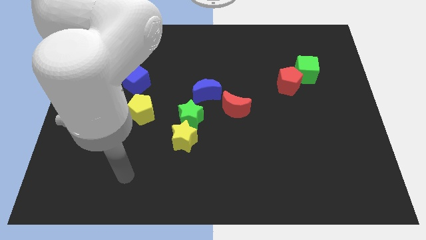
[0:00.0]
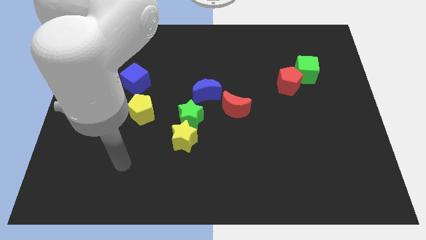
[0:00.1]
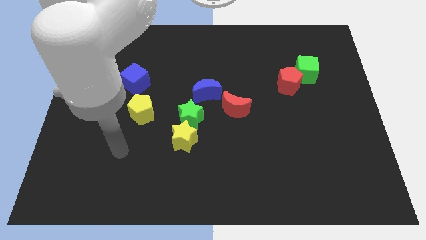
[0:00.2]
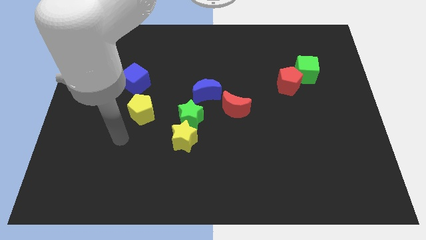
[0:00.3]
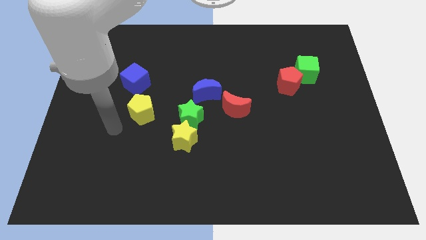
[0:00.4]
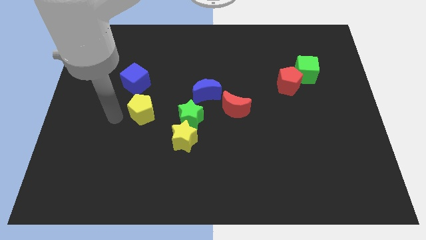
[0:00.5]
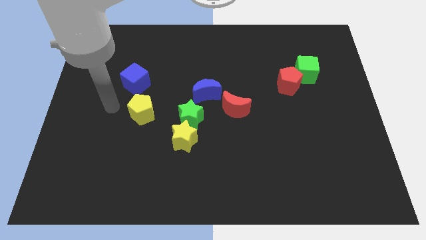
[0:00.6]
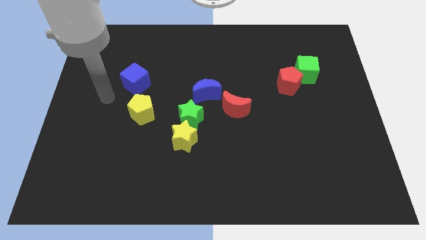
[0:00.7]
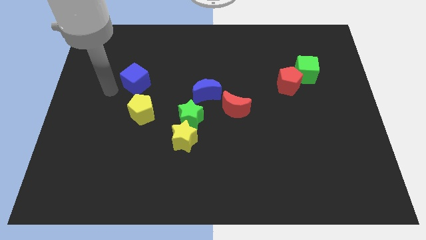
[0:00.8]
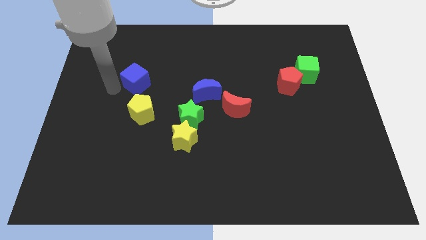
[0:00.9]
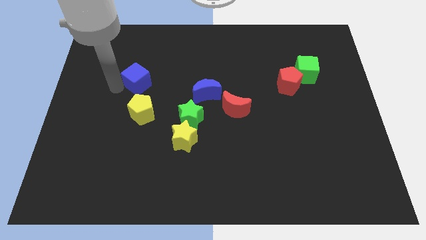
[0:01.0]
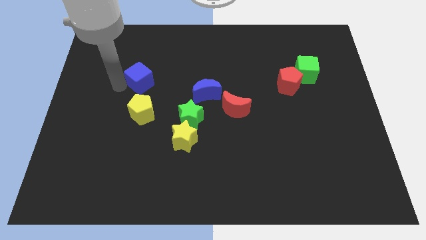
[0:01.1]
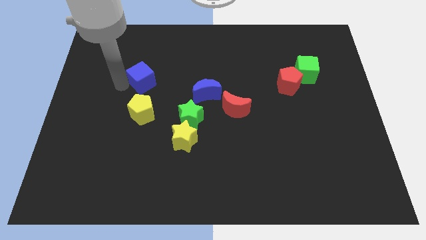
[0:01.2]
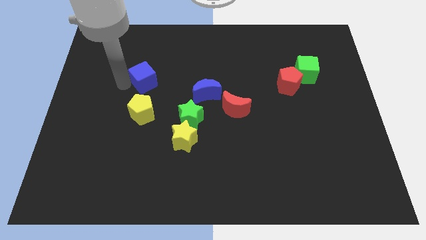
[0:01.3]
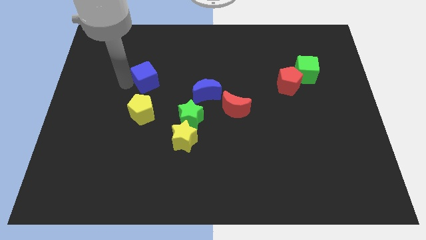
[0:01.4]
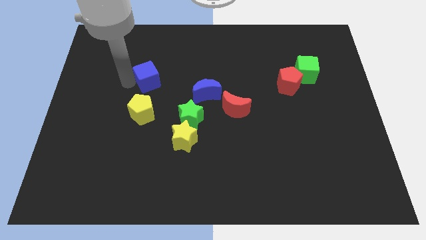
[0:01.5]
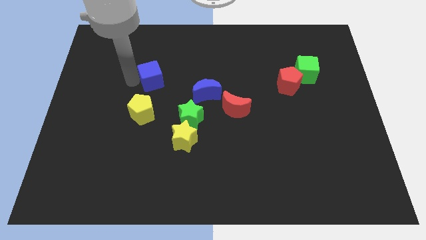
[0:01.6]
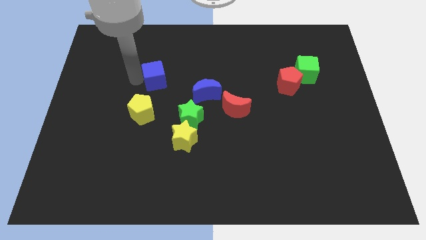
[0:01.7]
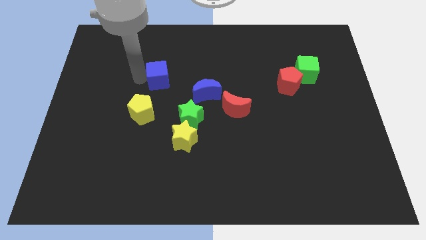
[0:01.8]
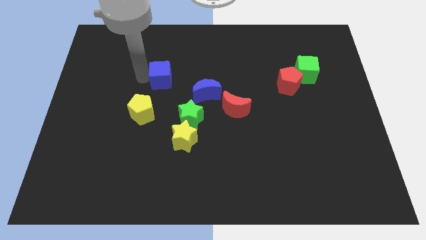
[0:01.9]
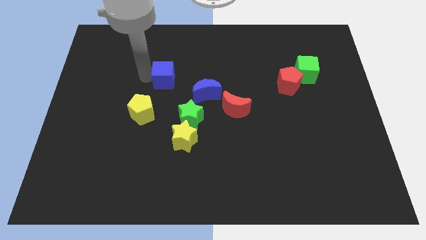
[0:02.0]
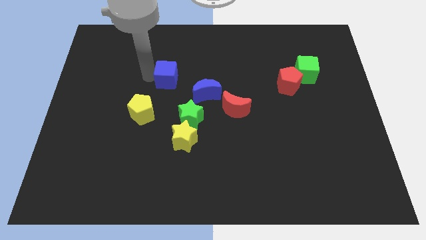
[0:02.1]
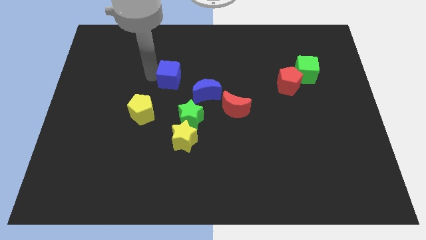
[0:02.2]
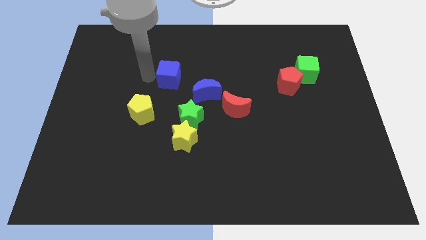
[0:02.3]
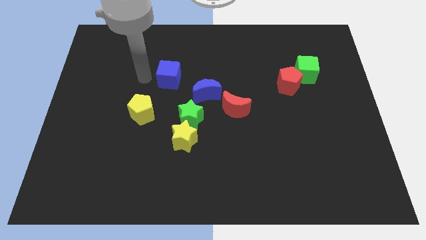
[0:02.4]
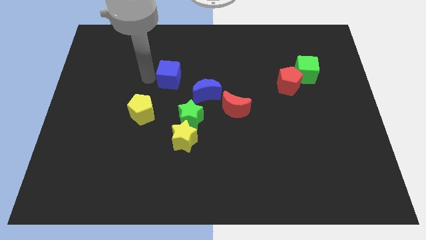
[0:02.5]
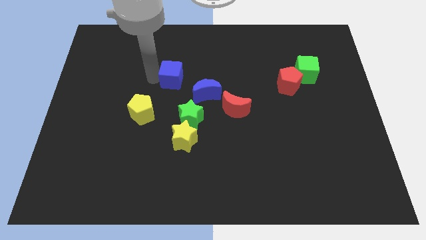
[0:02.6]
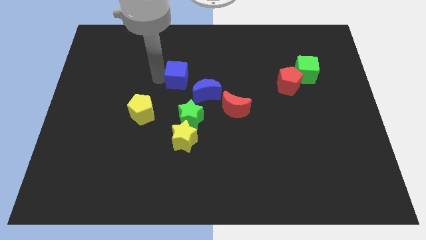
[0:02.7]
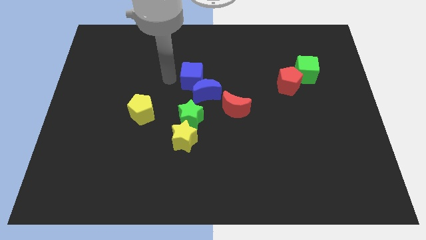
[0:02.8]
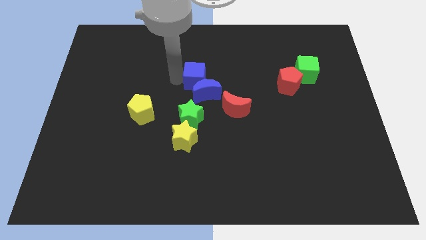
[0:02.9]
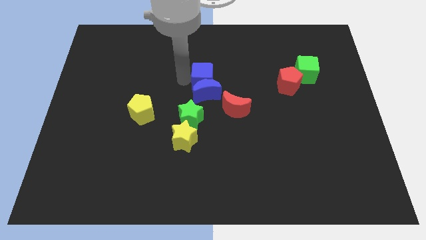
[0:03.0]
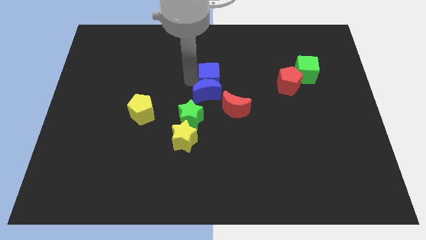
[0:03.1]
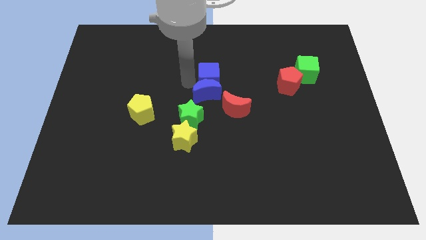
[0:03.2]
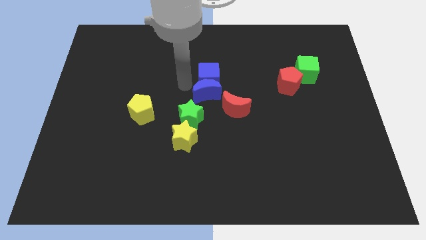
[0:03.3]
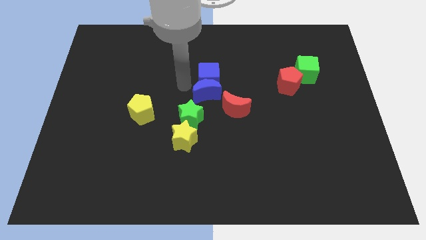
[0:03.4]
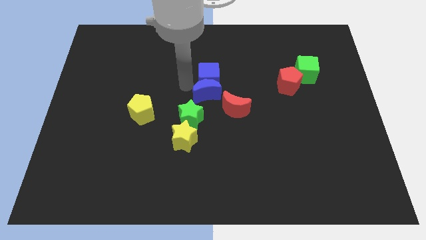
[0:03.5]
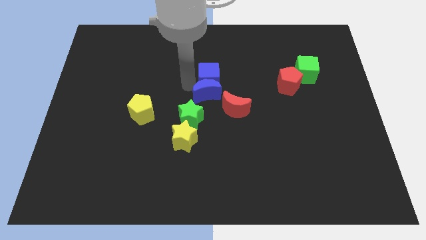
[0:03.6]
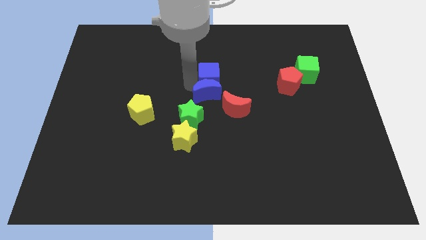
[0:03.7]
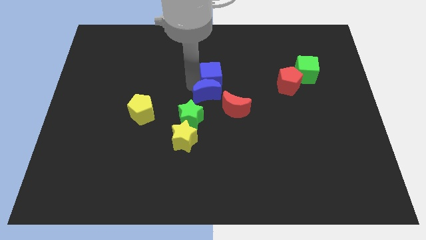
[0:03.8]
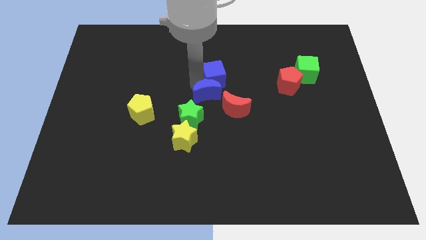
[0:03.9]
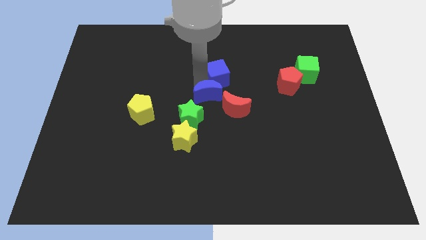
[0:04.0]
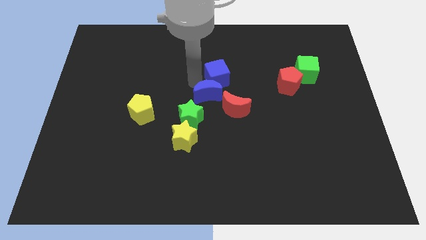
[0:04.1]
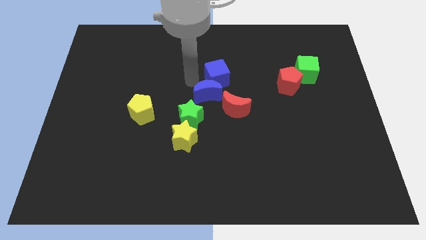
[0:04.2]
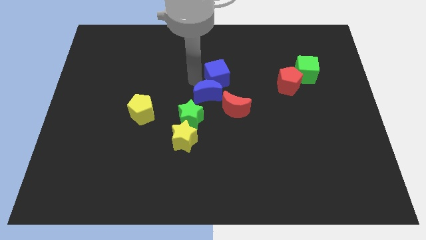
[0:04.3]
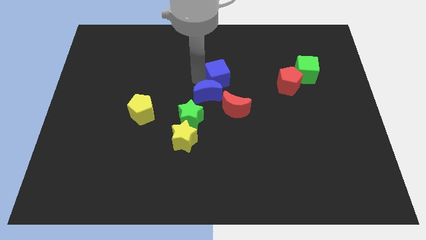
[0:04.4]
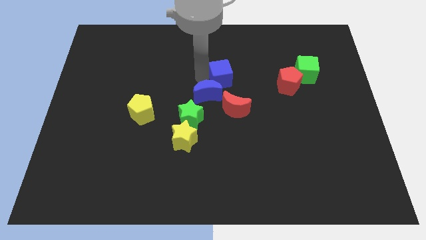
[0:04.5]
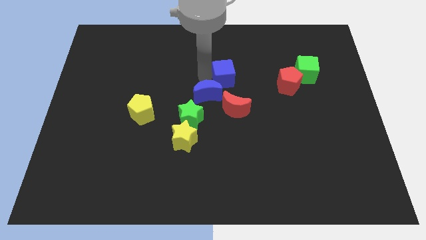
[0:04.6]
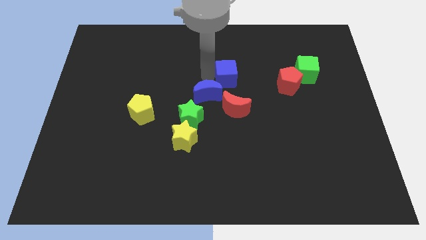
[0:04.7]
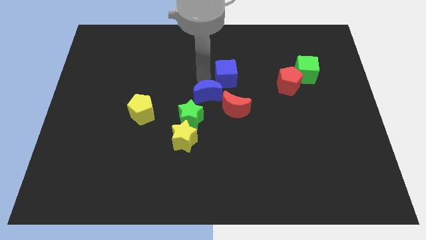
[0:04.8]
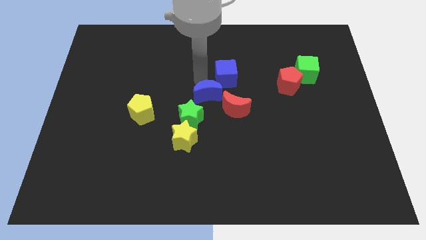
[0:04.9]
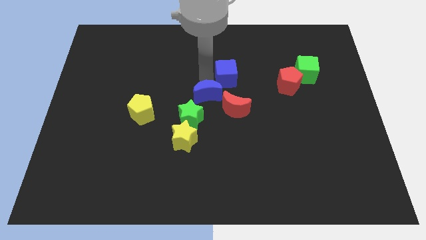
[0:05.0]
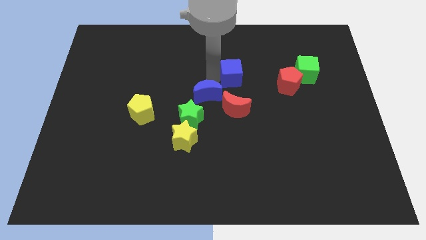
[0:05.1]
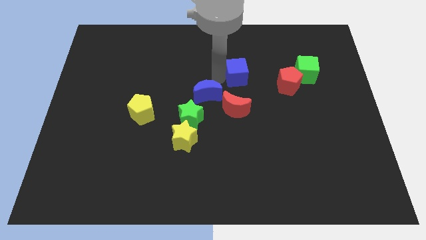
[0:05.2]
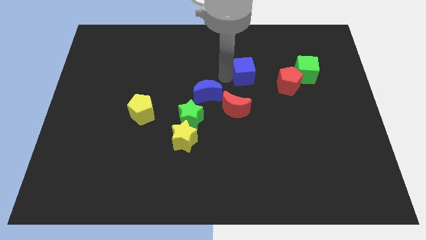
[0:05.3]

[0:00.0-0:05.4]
slide the blue cube left of the green cube

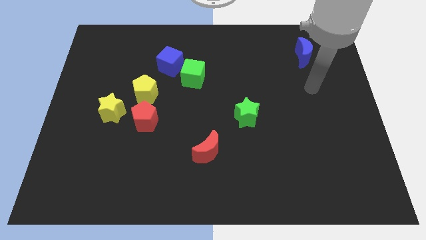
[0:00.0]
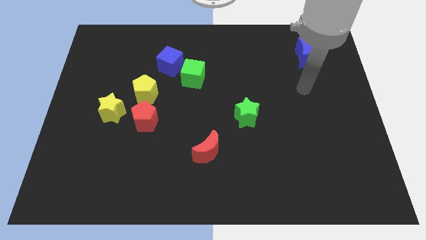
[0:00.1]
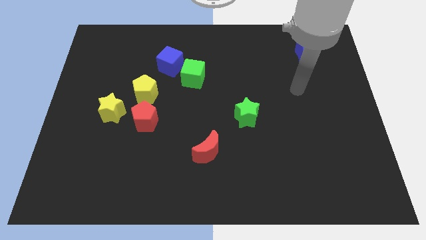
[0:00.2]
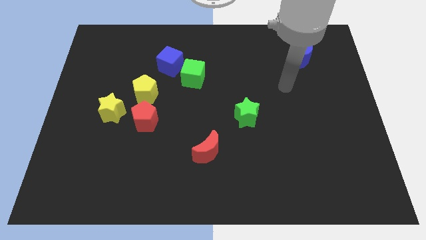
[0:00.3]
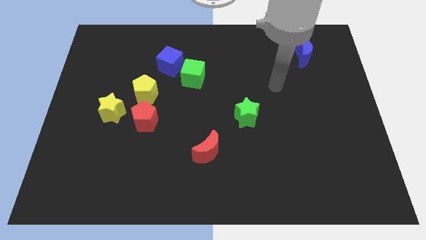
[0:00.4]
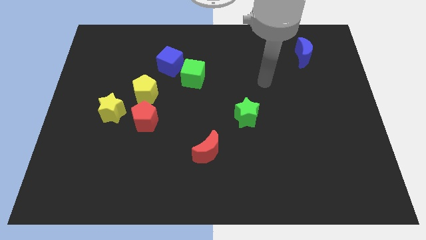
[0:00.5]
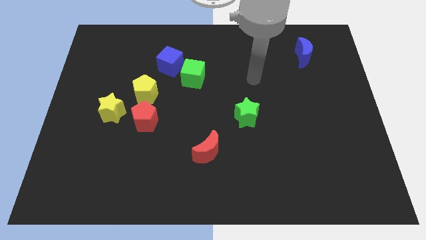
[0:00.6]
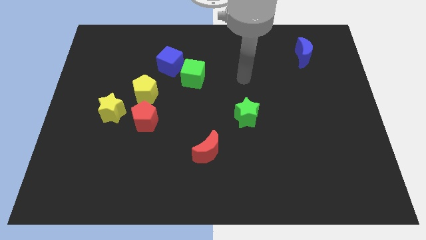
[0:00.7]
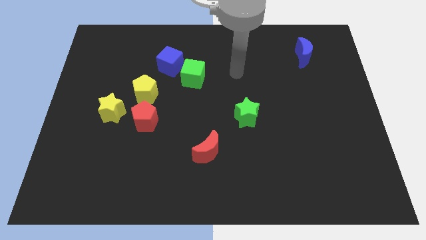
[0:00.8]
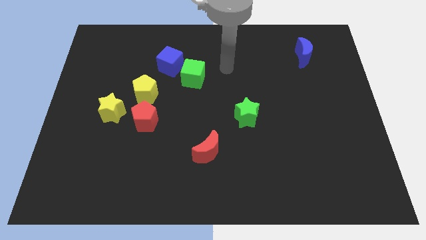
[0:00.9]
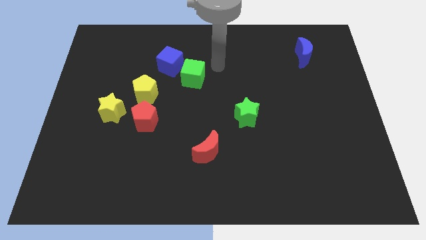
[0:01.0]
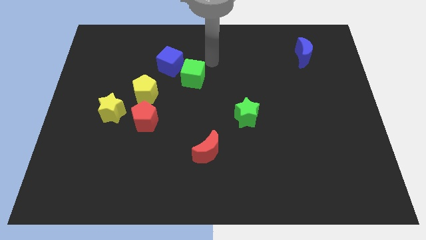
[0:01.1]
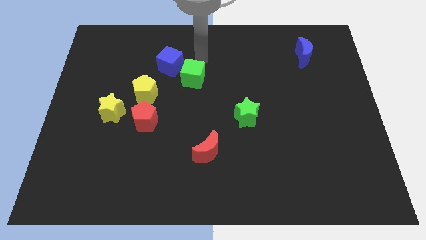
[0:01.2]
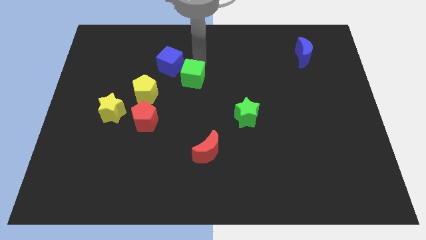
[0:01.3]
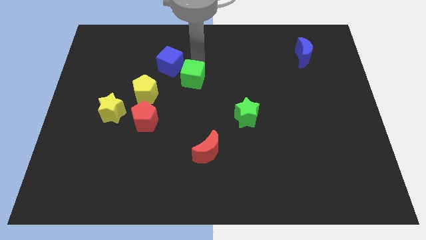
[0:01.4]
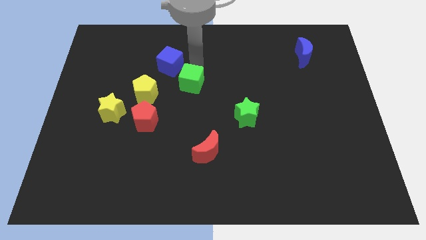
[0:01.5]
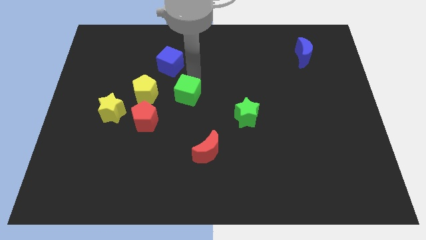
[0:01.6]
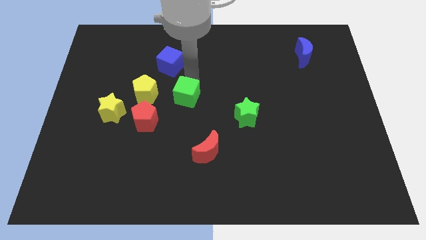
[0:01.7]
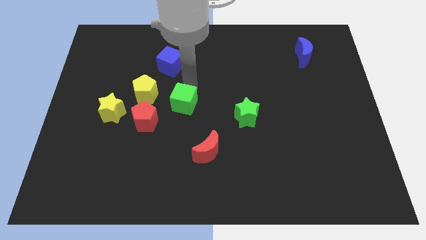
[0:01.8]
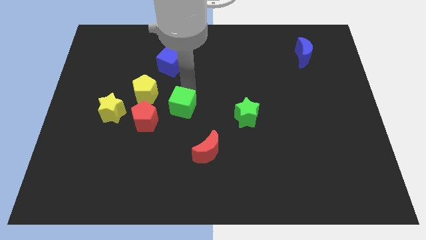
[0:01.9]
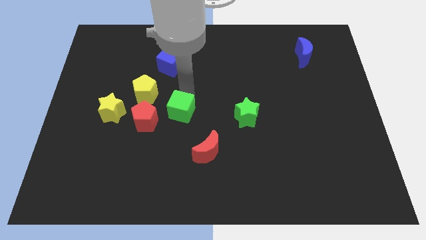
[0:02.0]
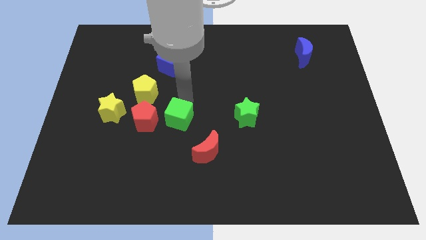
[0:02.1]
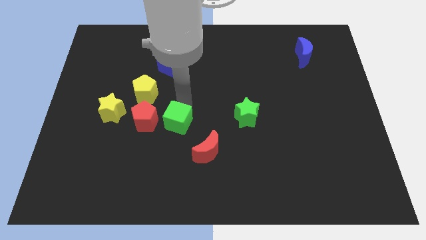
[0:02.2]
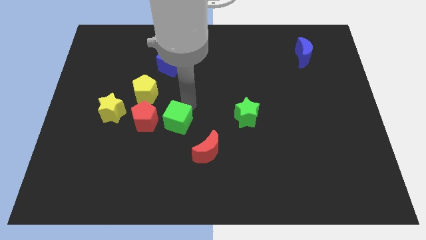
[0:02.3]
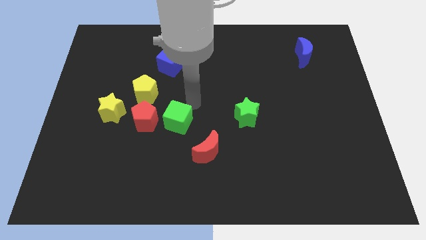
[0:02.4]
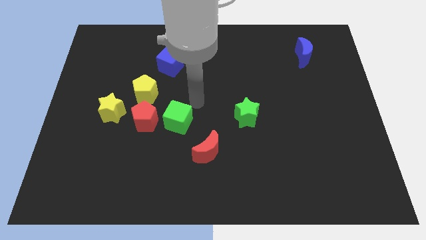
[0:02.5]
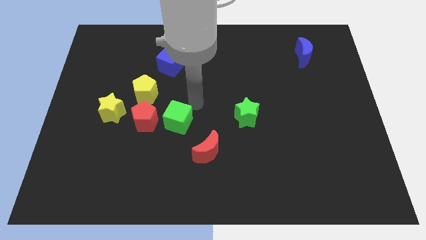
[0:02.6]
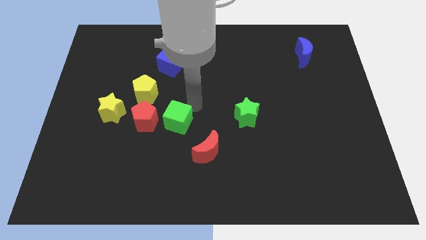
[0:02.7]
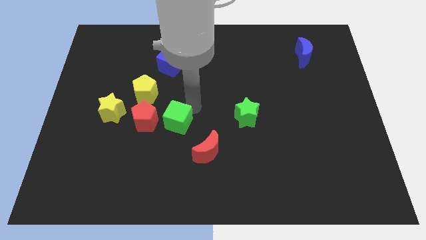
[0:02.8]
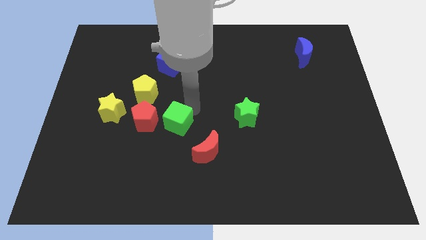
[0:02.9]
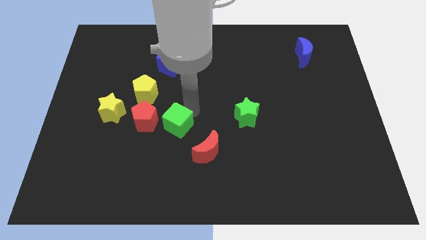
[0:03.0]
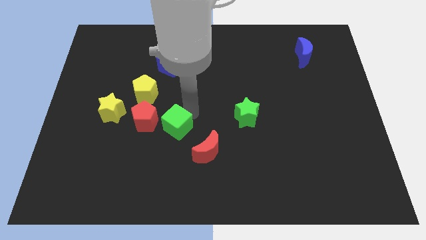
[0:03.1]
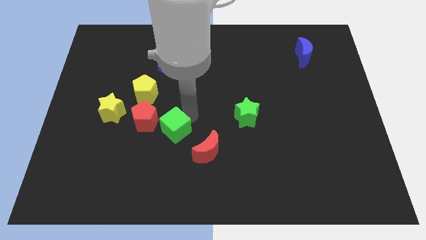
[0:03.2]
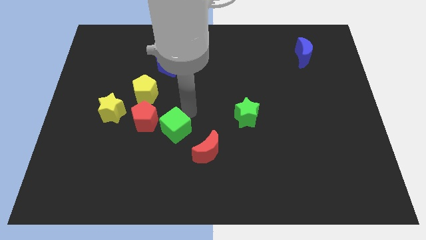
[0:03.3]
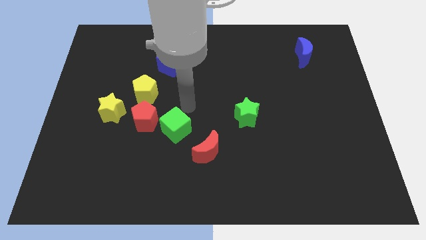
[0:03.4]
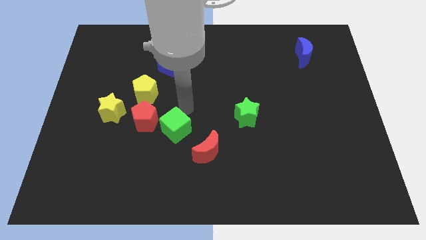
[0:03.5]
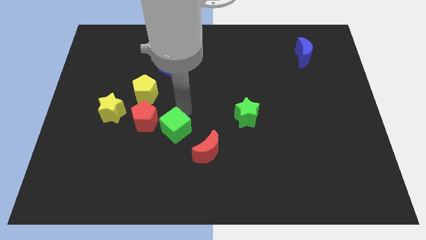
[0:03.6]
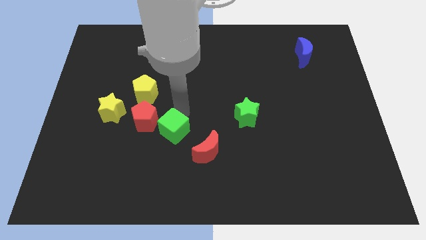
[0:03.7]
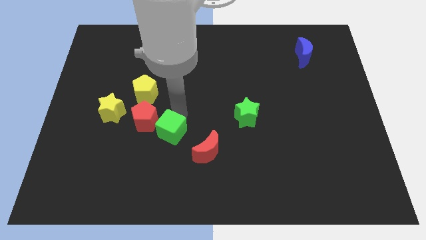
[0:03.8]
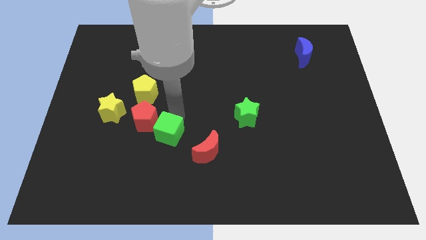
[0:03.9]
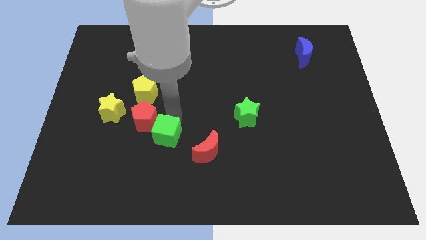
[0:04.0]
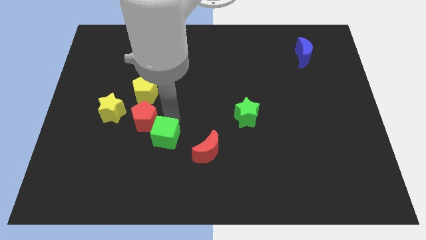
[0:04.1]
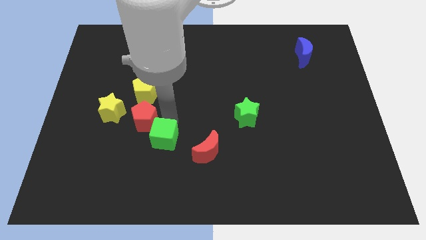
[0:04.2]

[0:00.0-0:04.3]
put the green cube below the red pentagon
